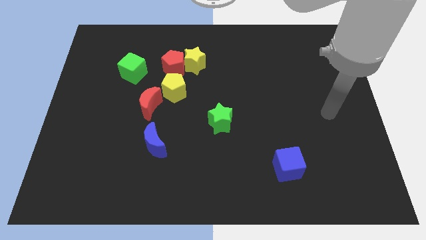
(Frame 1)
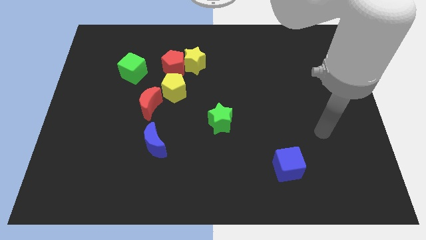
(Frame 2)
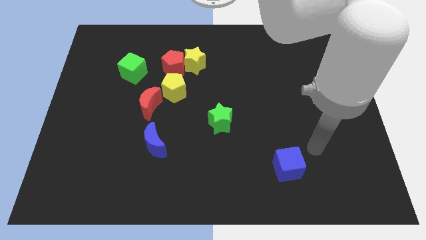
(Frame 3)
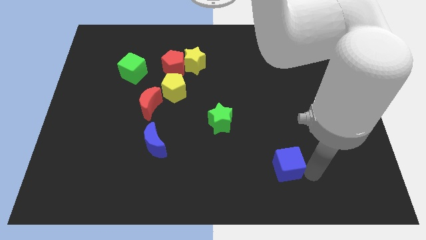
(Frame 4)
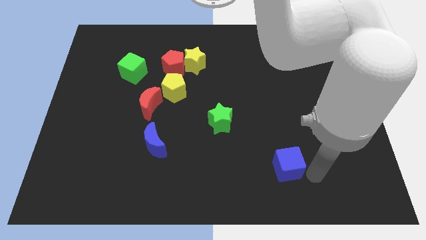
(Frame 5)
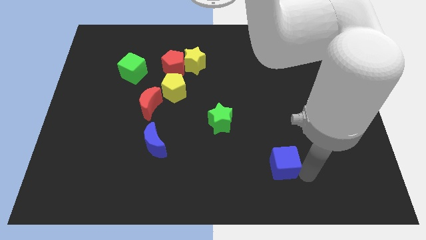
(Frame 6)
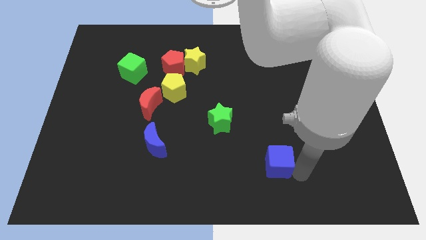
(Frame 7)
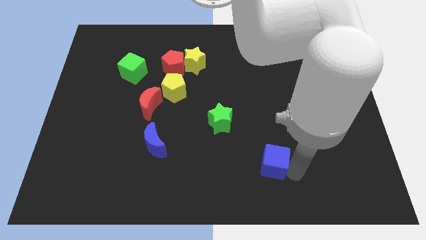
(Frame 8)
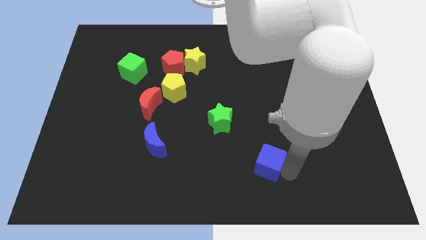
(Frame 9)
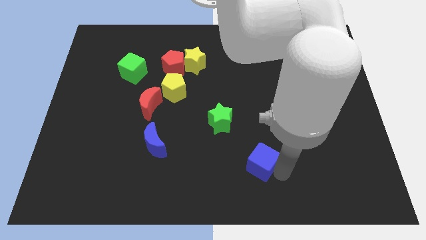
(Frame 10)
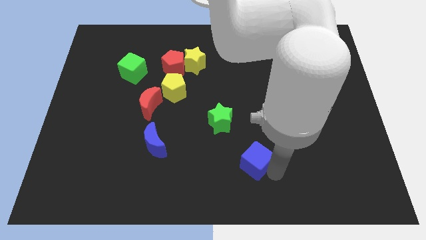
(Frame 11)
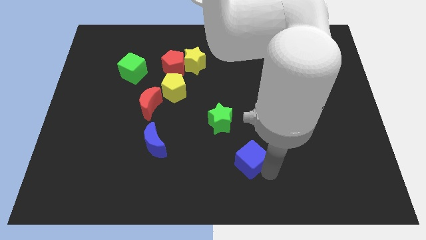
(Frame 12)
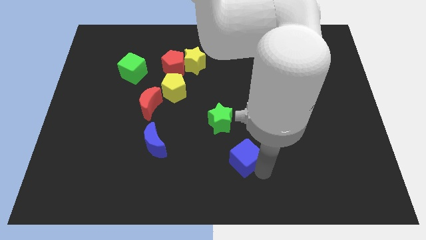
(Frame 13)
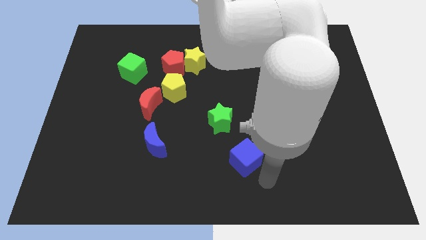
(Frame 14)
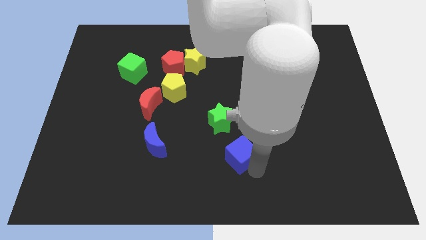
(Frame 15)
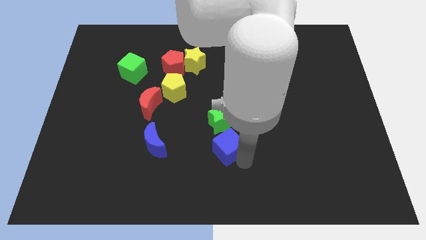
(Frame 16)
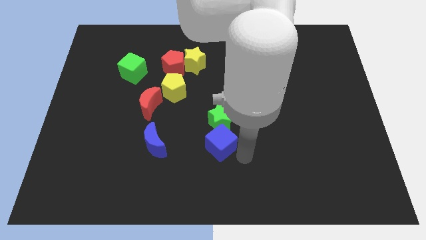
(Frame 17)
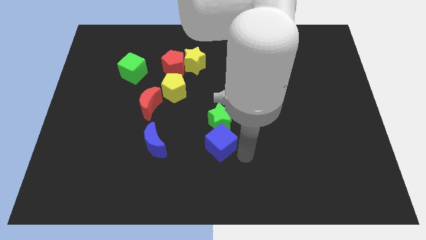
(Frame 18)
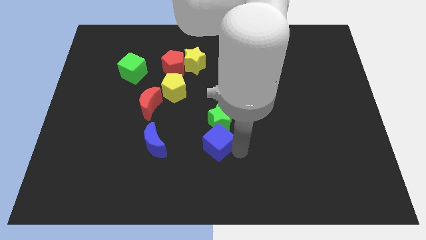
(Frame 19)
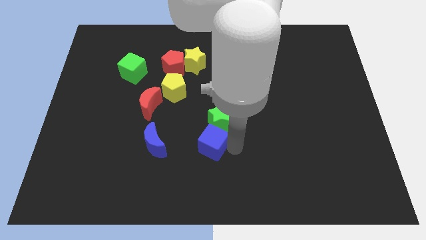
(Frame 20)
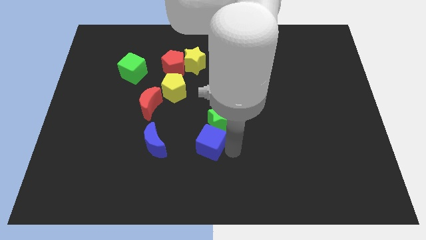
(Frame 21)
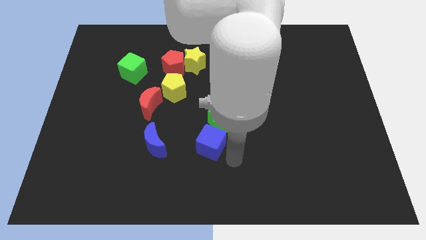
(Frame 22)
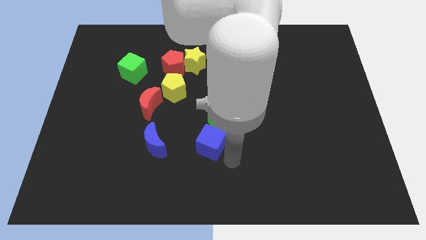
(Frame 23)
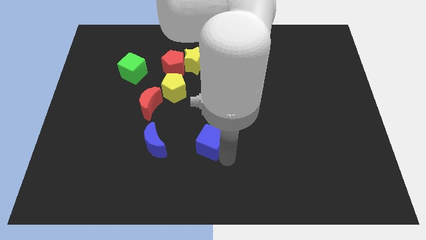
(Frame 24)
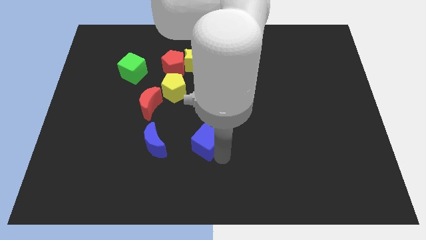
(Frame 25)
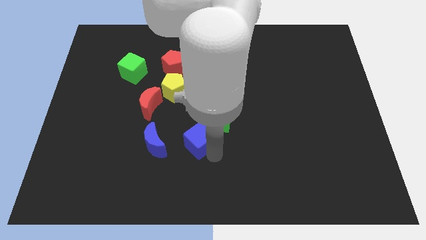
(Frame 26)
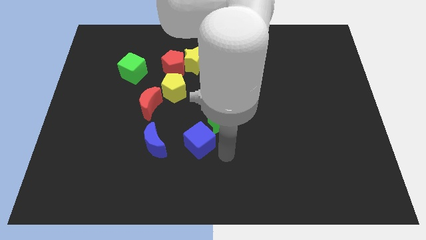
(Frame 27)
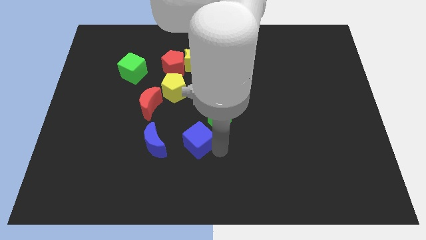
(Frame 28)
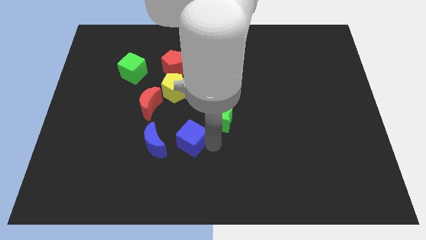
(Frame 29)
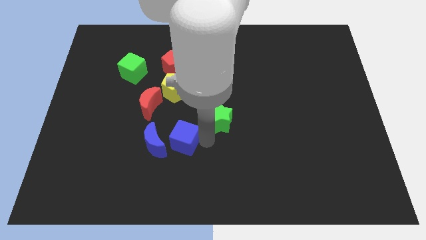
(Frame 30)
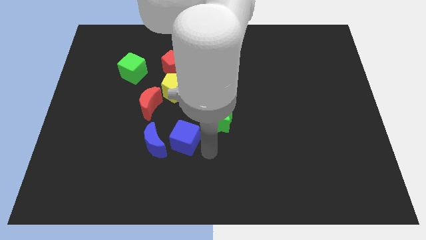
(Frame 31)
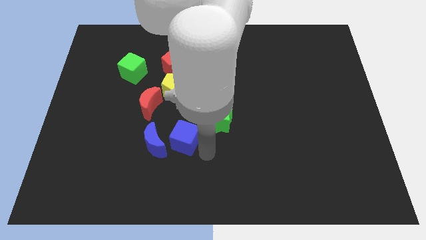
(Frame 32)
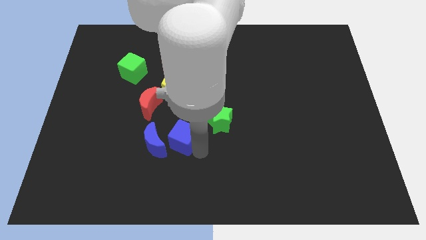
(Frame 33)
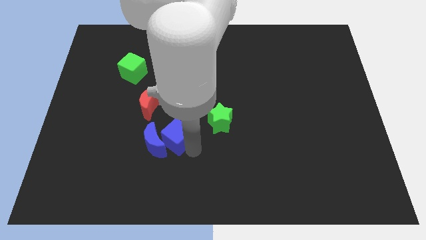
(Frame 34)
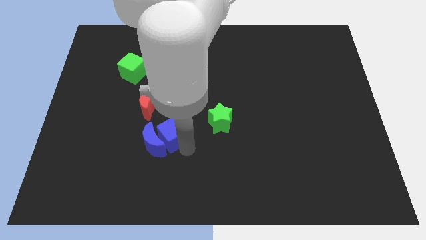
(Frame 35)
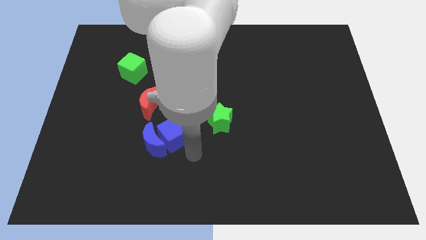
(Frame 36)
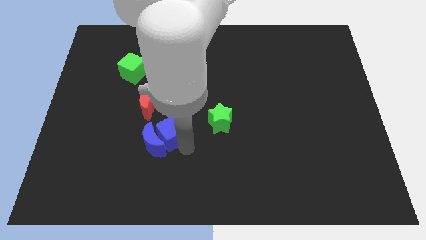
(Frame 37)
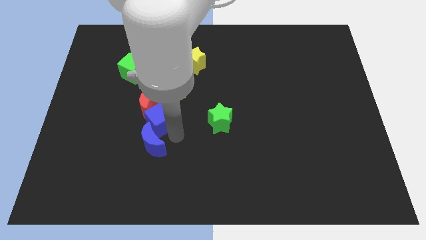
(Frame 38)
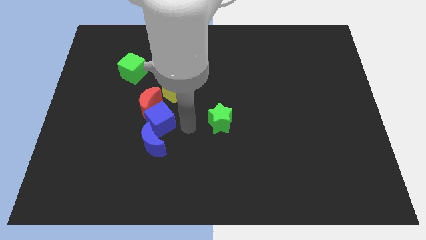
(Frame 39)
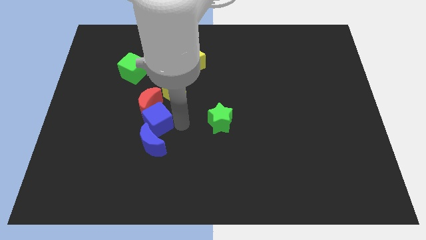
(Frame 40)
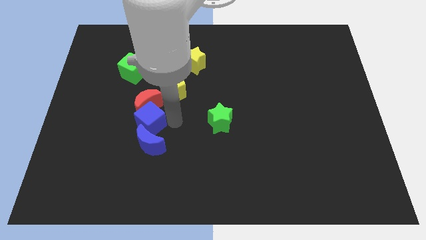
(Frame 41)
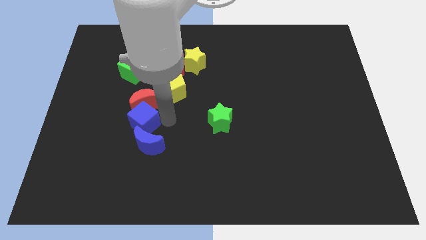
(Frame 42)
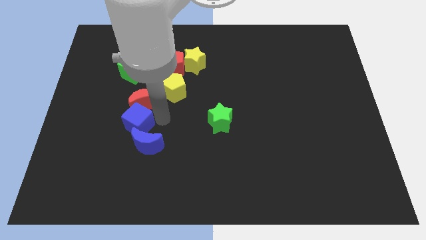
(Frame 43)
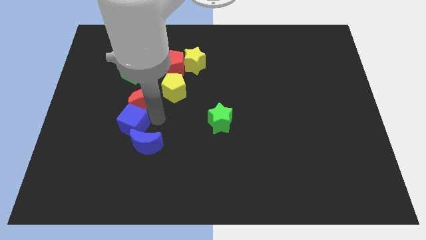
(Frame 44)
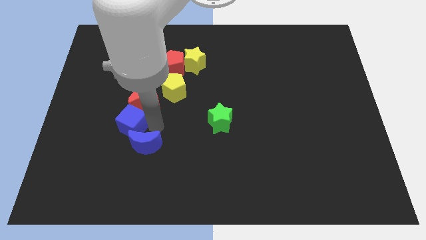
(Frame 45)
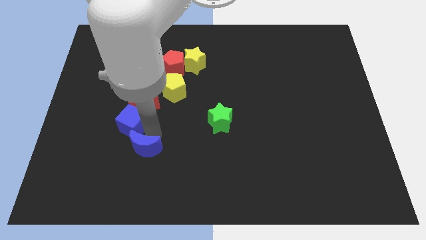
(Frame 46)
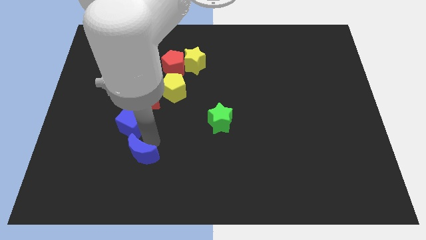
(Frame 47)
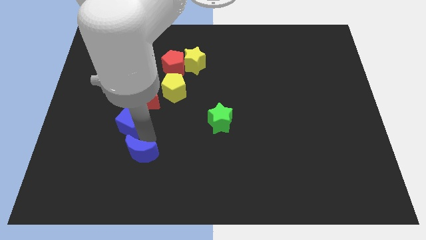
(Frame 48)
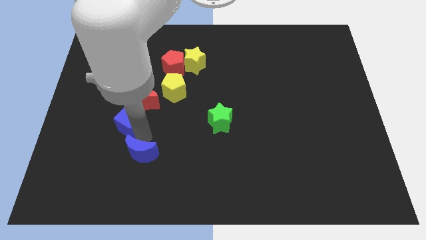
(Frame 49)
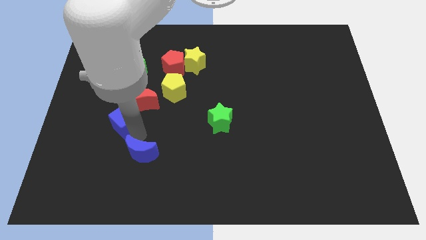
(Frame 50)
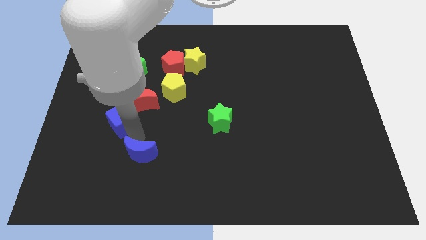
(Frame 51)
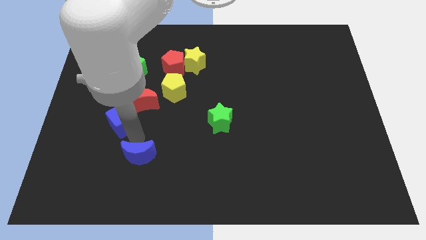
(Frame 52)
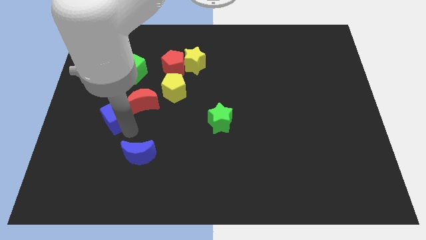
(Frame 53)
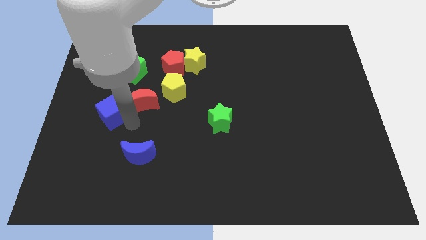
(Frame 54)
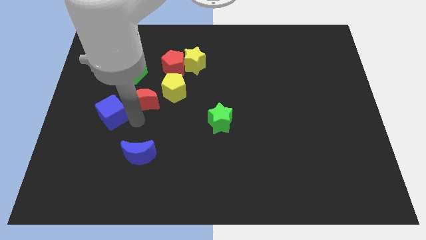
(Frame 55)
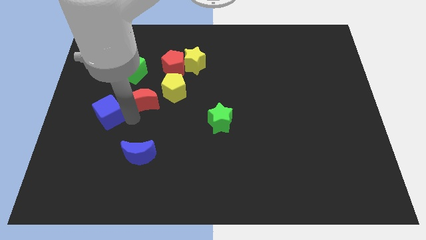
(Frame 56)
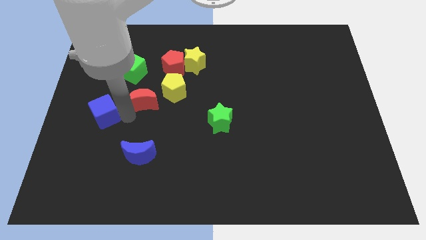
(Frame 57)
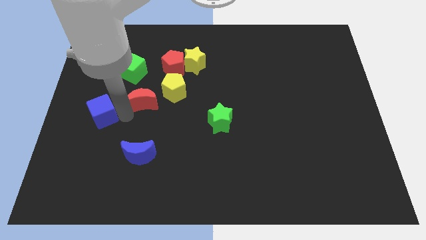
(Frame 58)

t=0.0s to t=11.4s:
put the blue cube to the left side

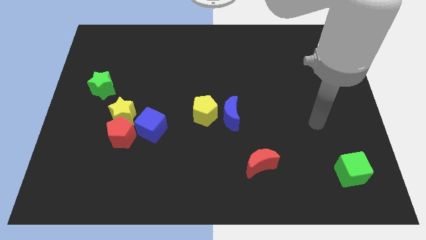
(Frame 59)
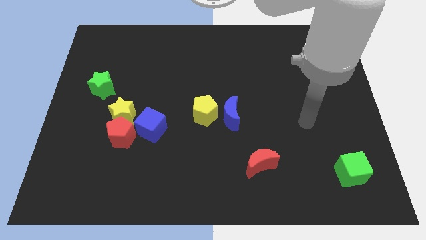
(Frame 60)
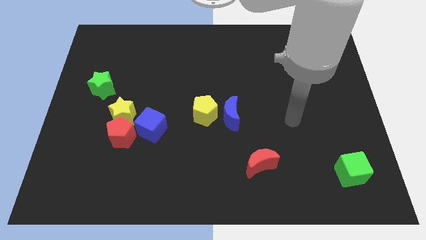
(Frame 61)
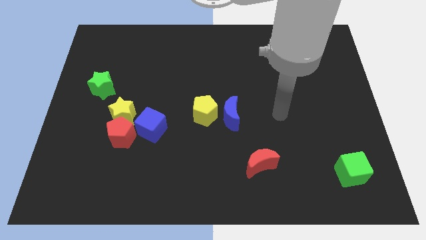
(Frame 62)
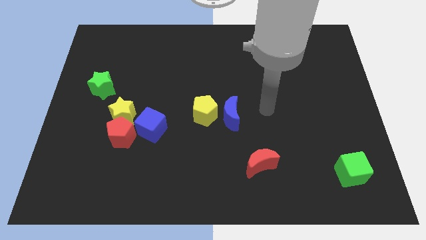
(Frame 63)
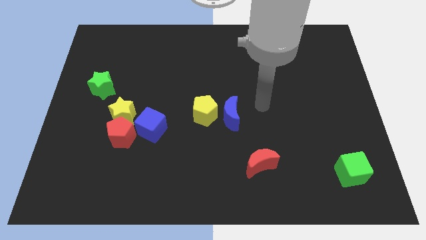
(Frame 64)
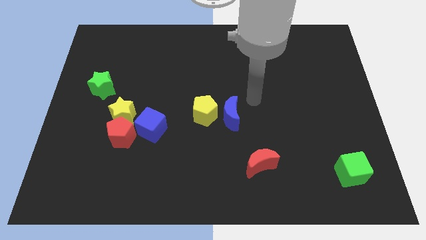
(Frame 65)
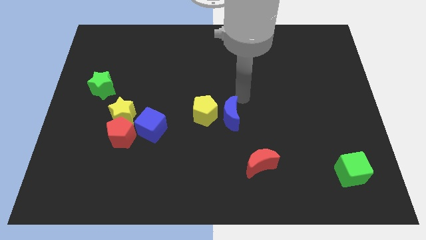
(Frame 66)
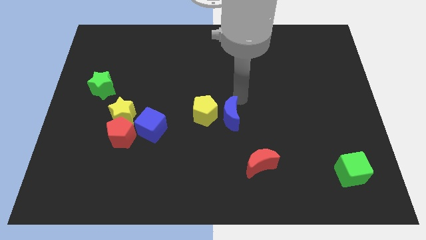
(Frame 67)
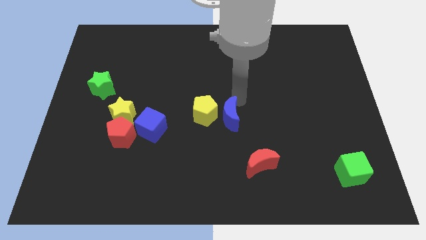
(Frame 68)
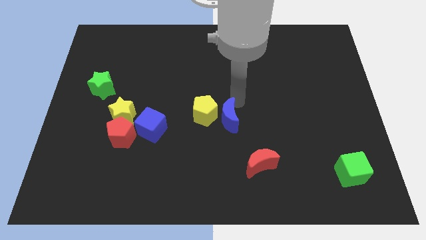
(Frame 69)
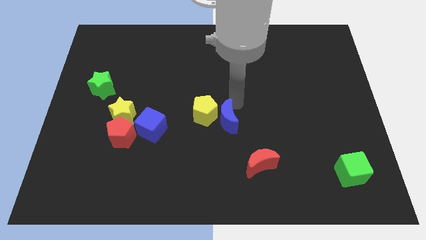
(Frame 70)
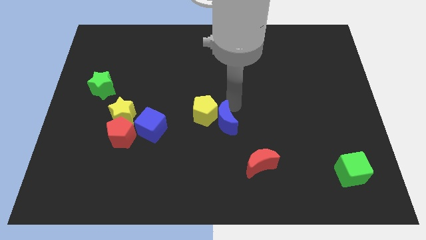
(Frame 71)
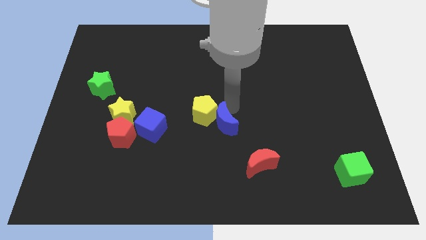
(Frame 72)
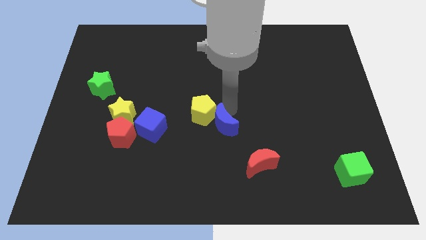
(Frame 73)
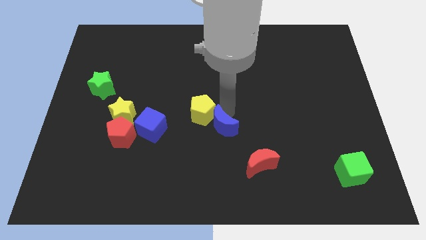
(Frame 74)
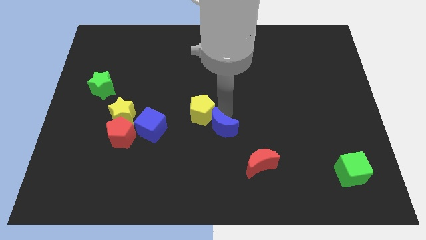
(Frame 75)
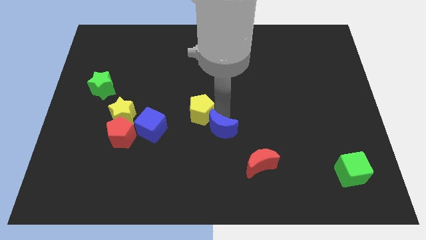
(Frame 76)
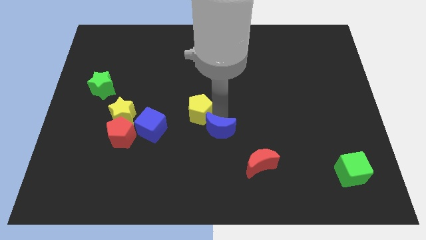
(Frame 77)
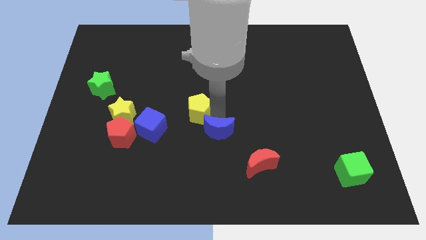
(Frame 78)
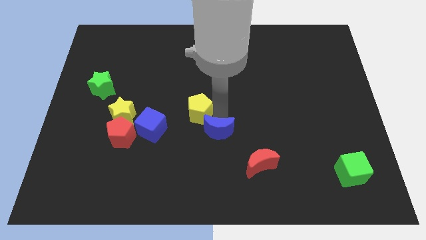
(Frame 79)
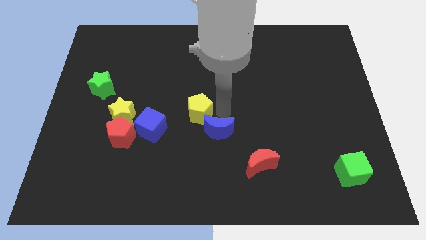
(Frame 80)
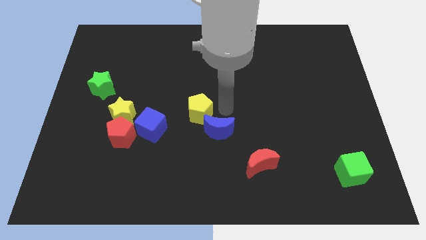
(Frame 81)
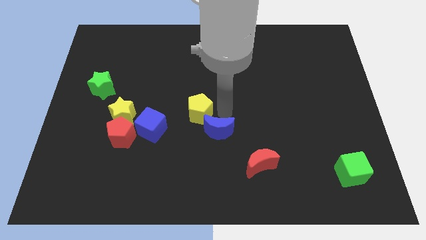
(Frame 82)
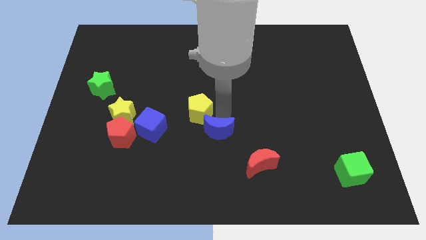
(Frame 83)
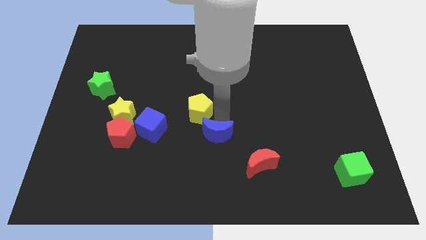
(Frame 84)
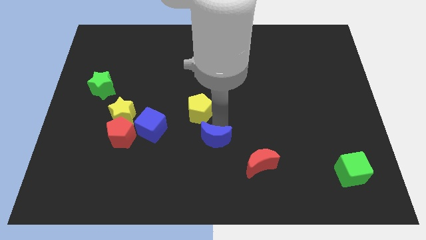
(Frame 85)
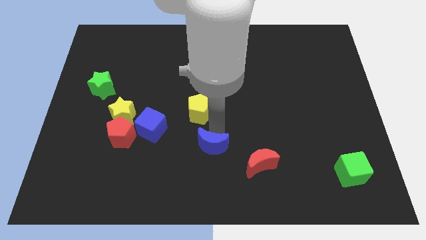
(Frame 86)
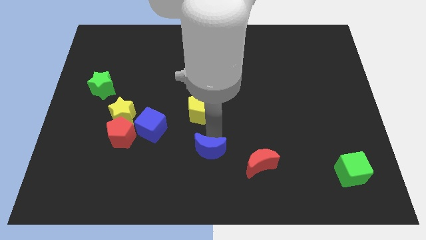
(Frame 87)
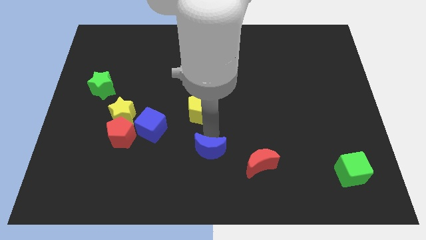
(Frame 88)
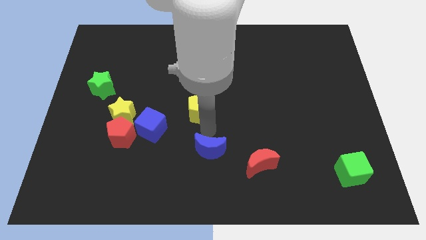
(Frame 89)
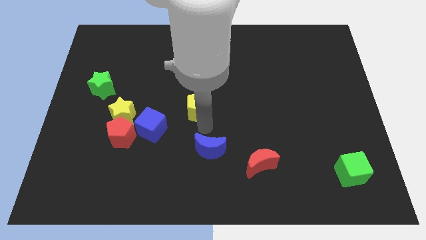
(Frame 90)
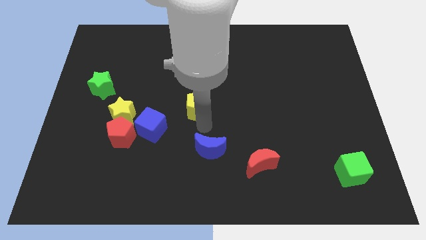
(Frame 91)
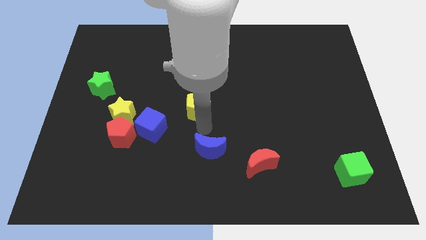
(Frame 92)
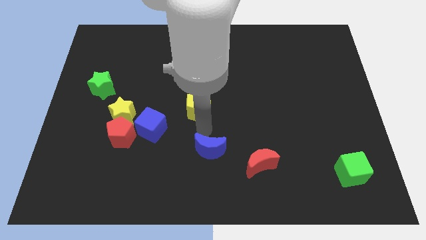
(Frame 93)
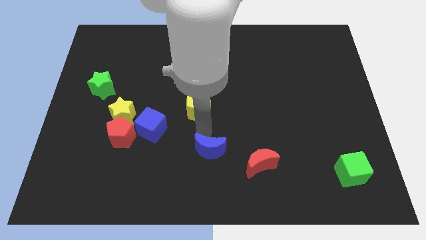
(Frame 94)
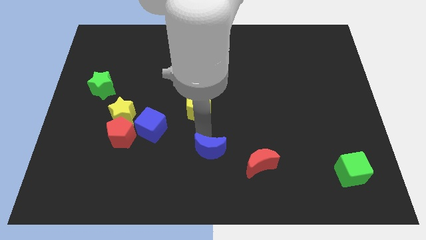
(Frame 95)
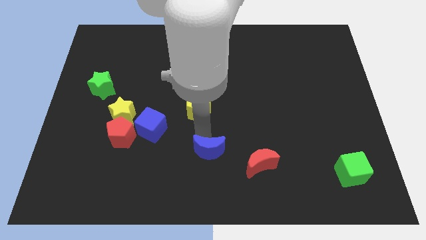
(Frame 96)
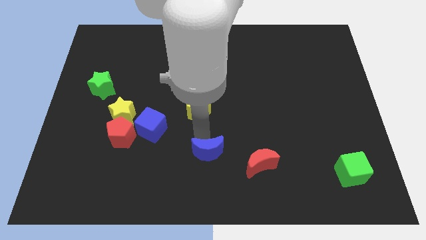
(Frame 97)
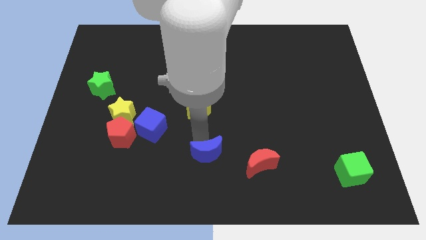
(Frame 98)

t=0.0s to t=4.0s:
move the blue moon to the bottom side
